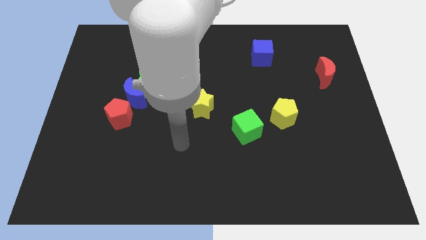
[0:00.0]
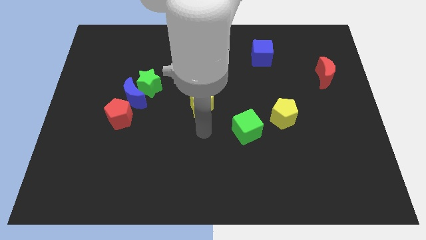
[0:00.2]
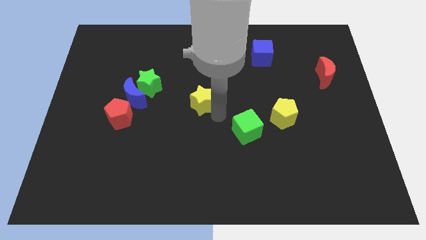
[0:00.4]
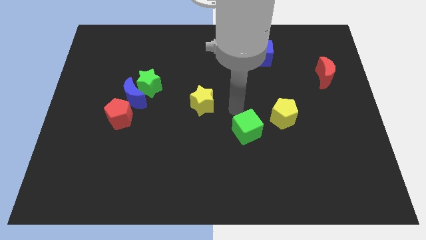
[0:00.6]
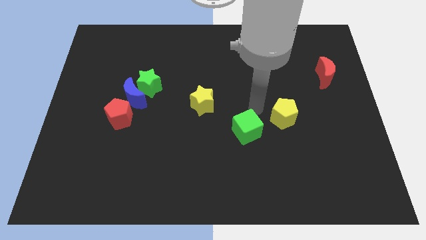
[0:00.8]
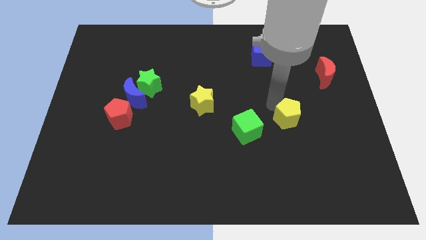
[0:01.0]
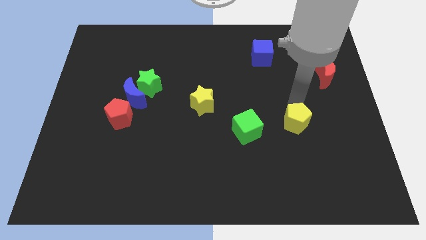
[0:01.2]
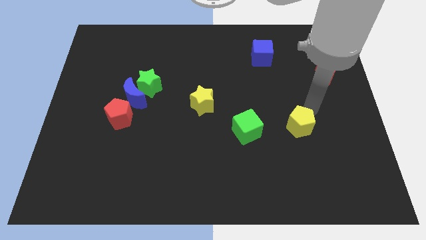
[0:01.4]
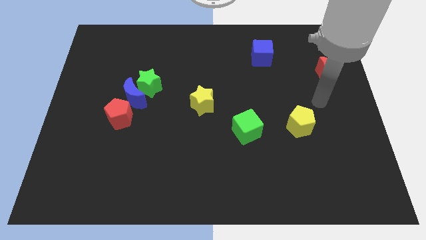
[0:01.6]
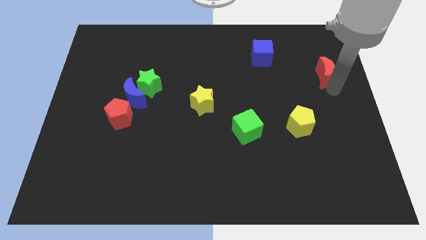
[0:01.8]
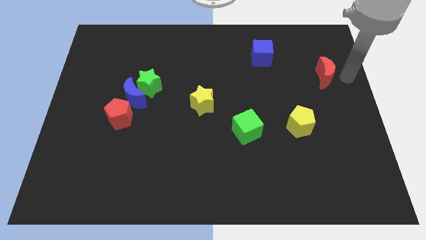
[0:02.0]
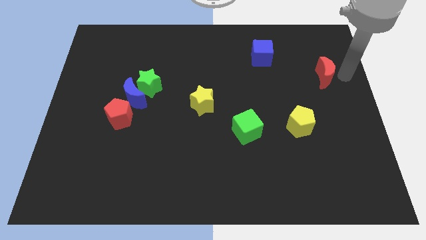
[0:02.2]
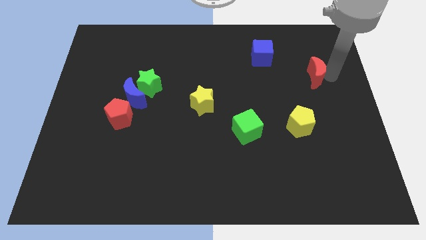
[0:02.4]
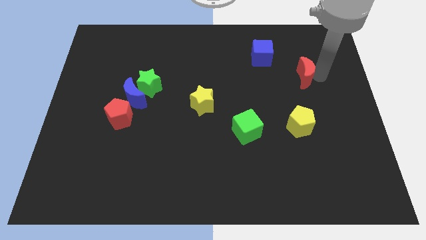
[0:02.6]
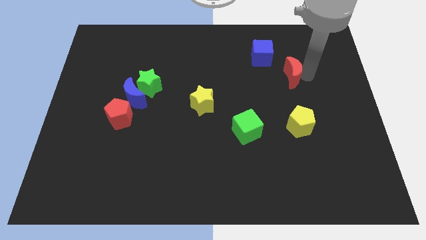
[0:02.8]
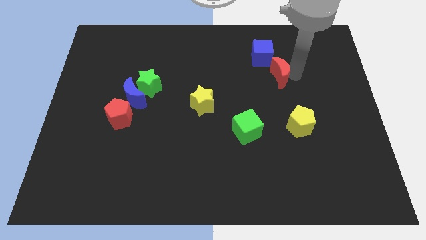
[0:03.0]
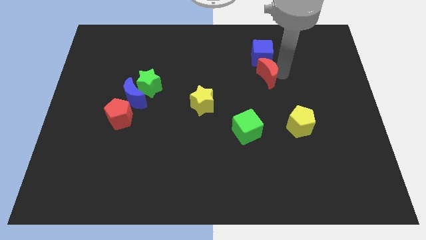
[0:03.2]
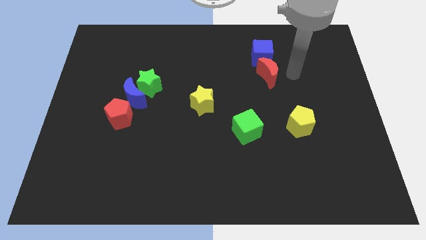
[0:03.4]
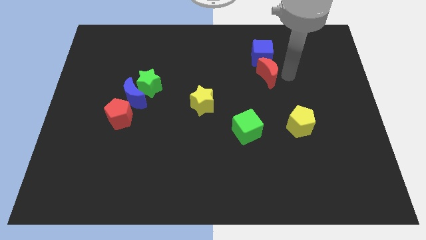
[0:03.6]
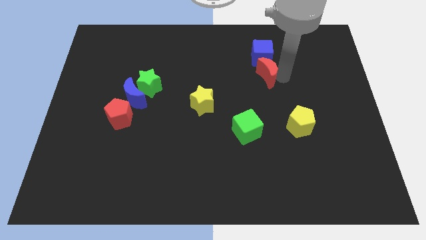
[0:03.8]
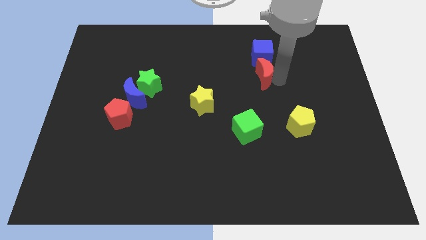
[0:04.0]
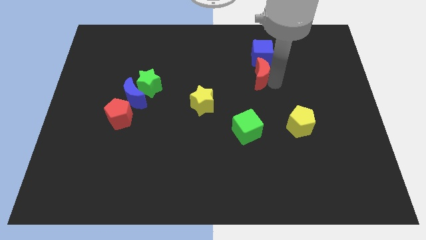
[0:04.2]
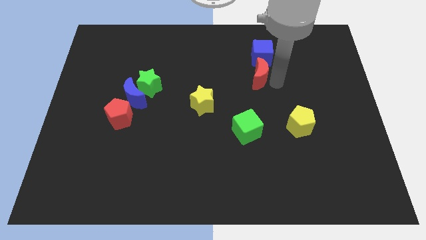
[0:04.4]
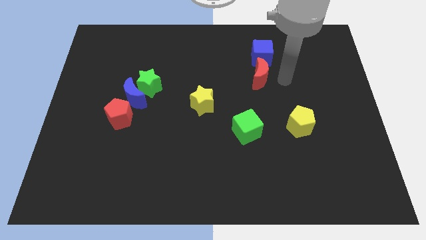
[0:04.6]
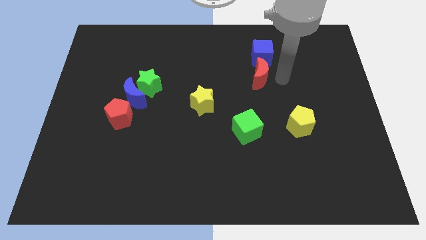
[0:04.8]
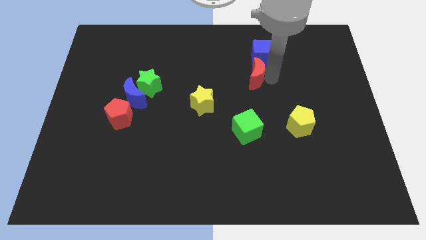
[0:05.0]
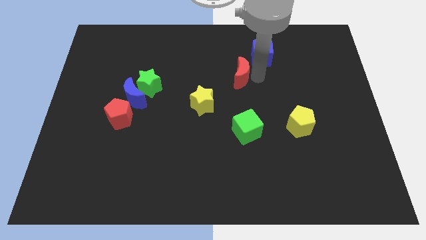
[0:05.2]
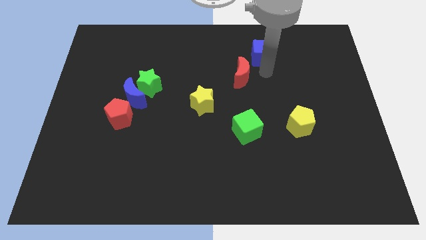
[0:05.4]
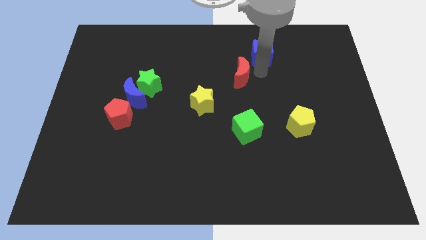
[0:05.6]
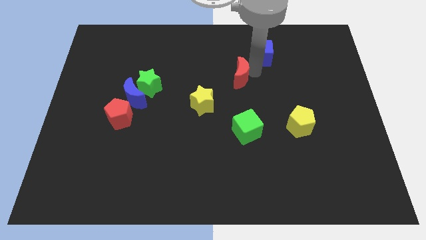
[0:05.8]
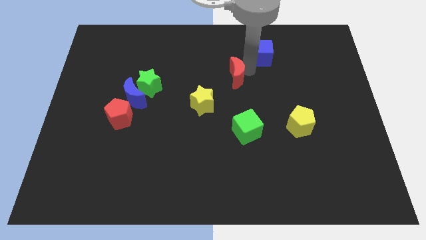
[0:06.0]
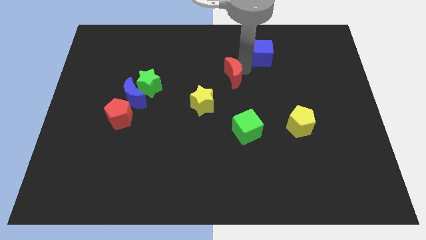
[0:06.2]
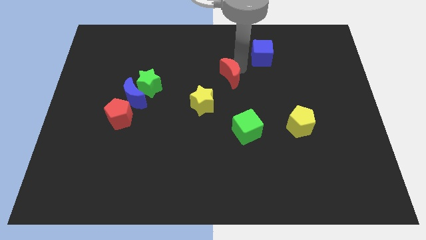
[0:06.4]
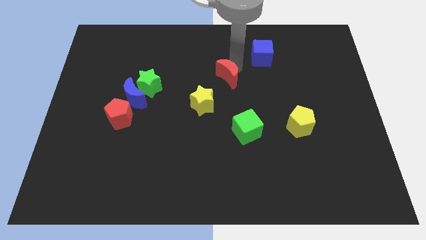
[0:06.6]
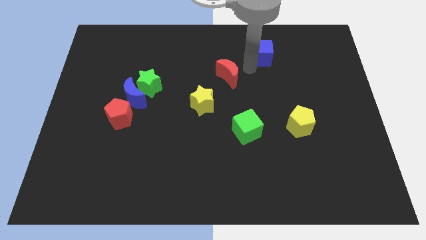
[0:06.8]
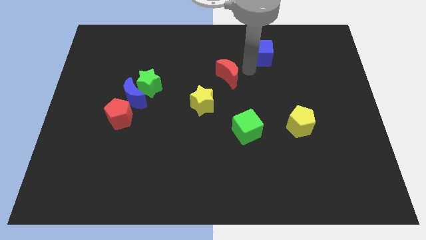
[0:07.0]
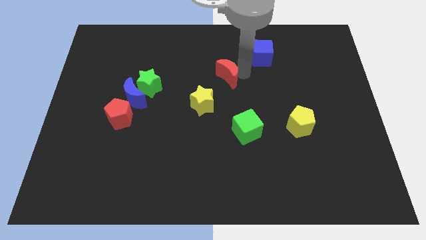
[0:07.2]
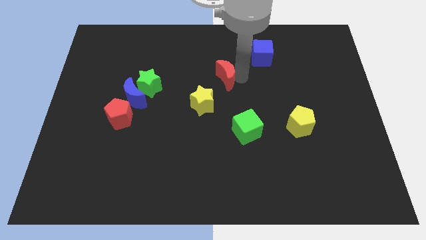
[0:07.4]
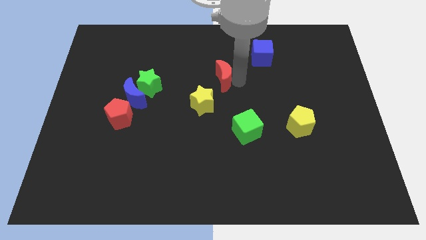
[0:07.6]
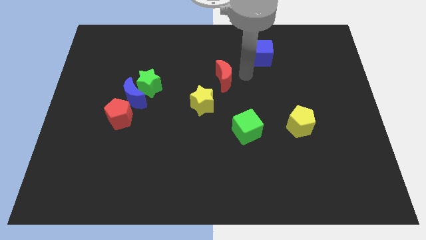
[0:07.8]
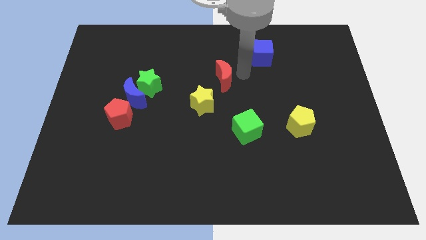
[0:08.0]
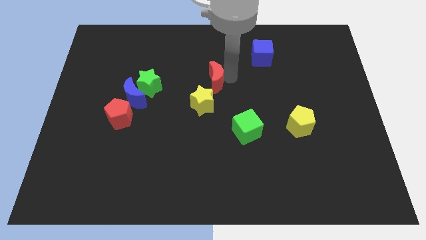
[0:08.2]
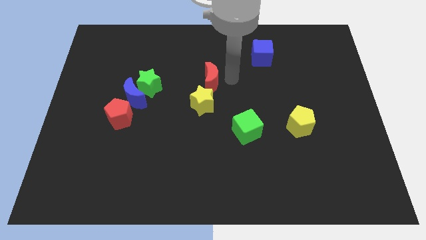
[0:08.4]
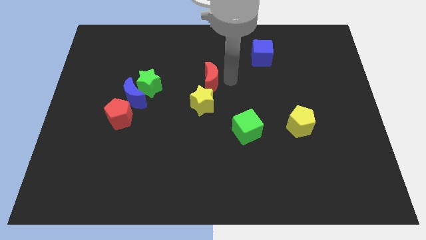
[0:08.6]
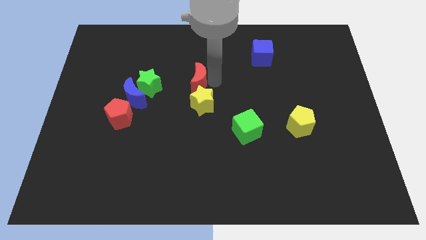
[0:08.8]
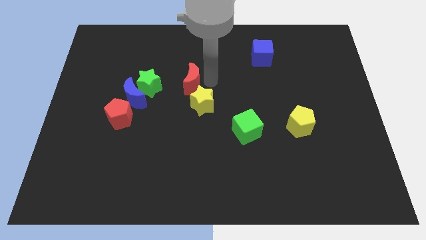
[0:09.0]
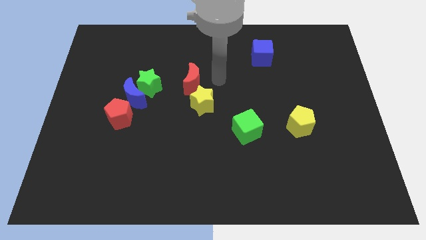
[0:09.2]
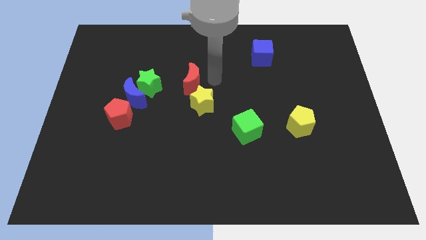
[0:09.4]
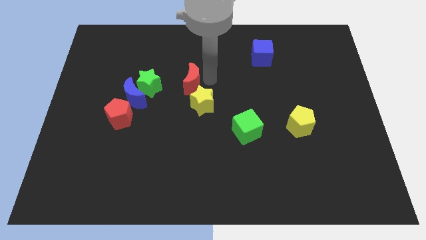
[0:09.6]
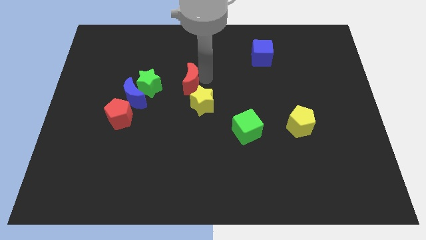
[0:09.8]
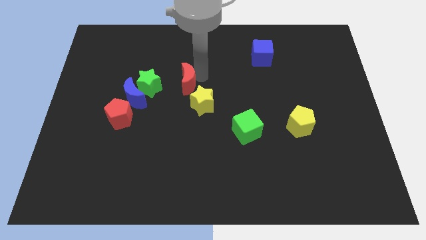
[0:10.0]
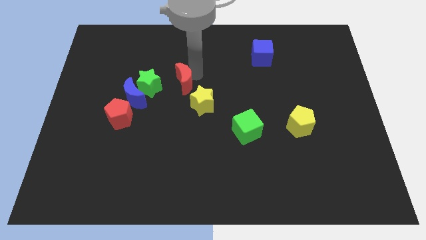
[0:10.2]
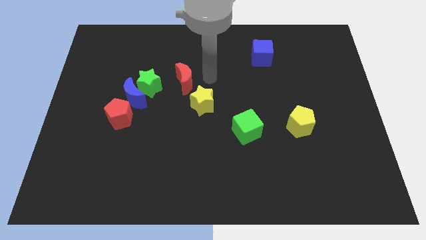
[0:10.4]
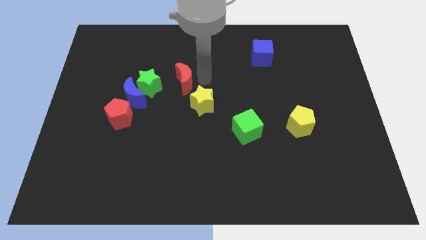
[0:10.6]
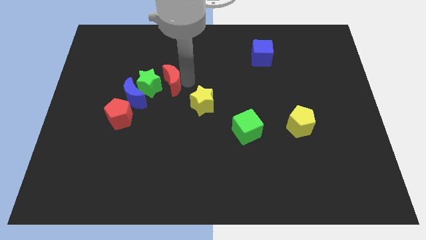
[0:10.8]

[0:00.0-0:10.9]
push the red moon next to the green star

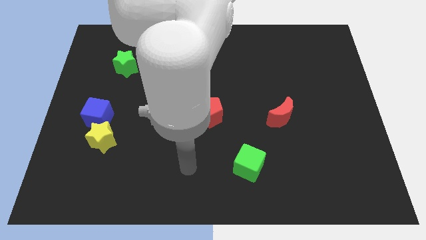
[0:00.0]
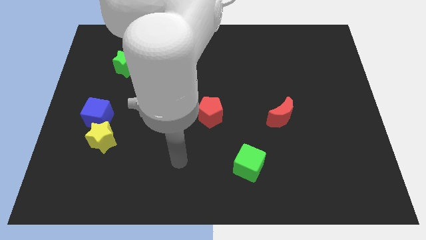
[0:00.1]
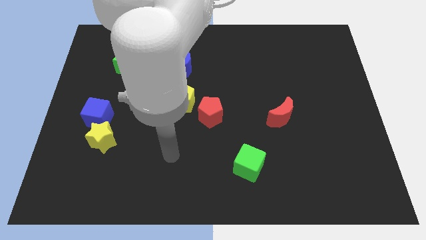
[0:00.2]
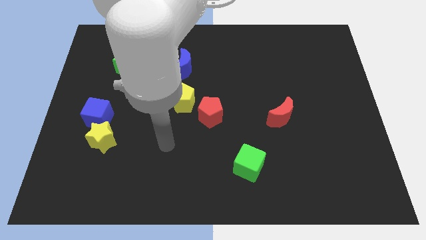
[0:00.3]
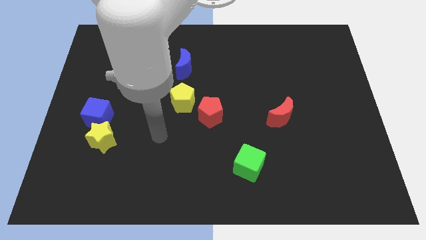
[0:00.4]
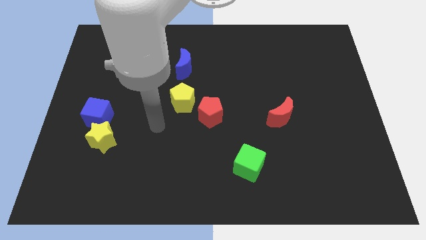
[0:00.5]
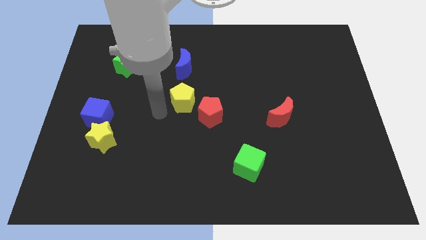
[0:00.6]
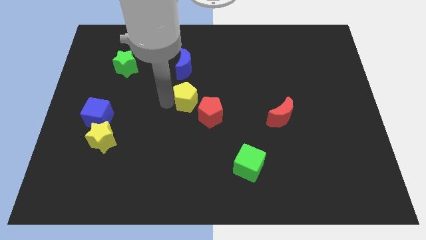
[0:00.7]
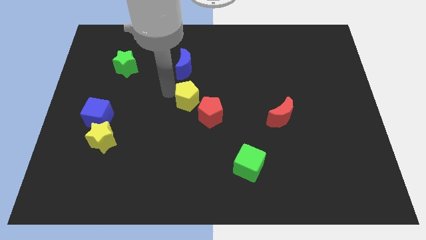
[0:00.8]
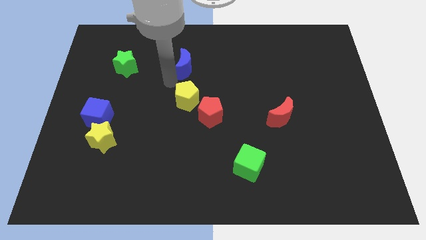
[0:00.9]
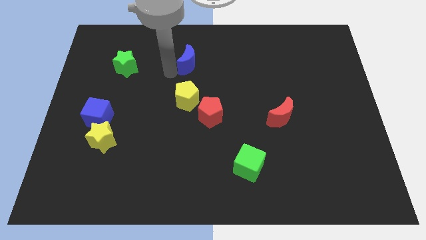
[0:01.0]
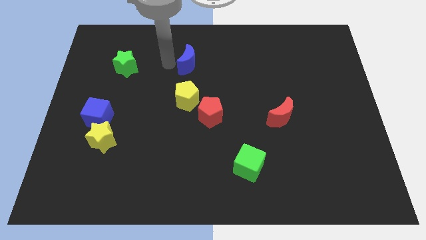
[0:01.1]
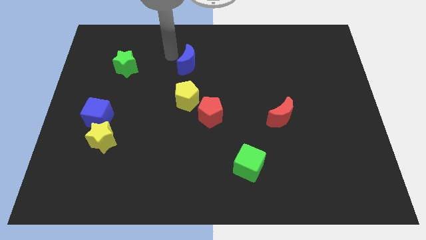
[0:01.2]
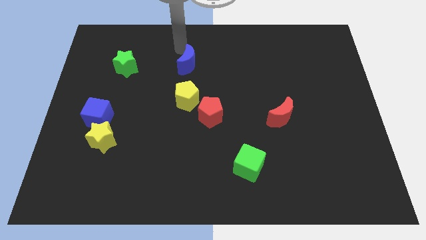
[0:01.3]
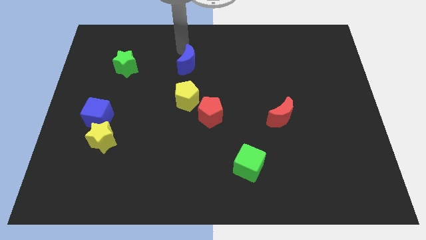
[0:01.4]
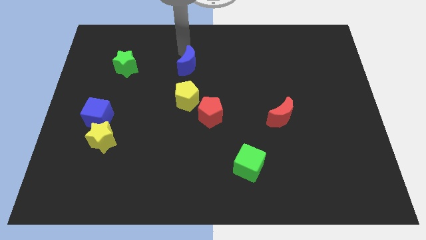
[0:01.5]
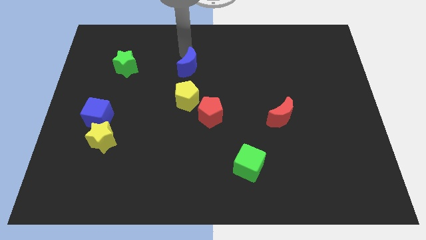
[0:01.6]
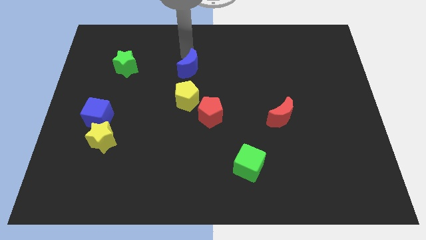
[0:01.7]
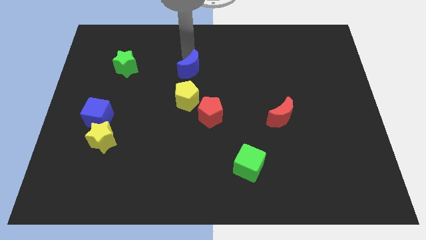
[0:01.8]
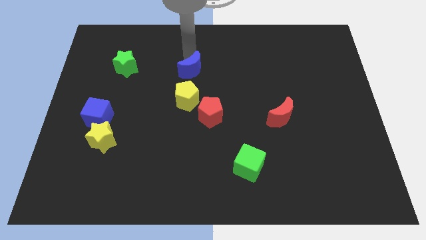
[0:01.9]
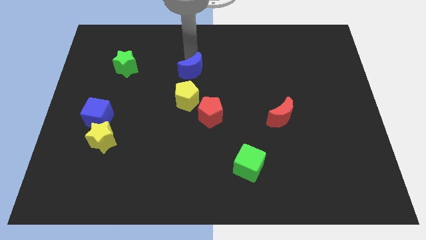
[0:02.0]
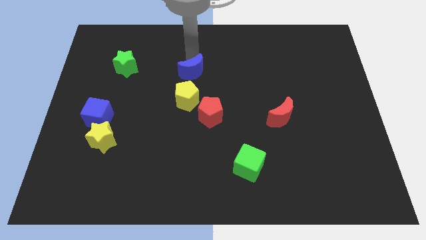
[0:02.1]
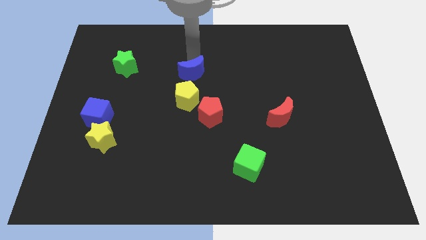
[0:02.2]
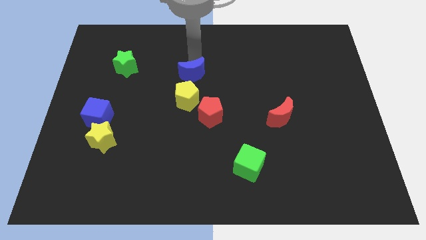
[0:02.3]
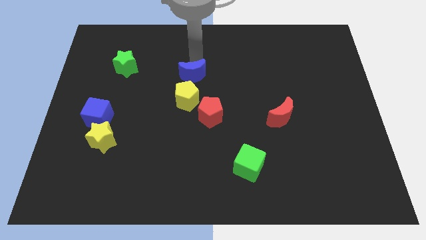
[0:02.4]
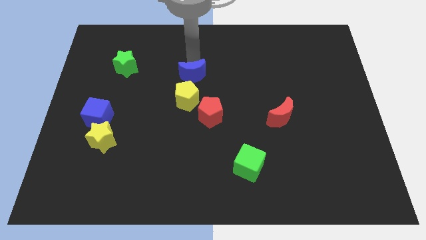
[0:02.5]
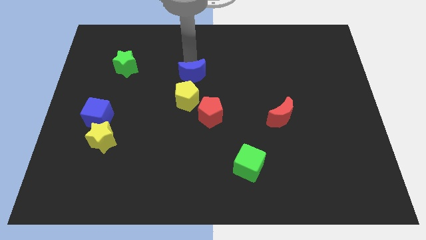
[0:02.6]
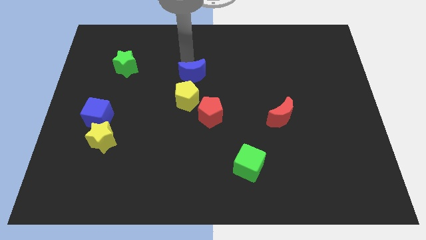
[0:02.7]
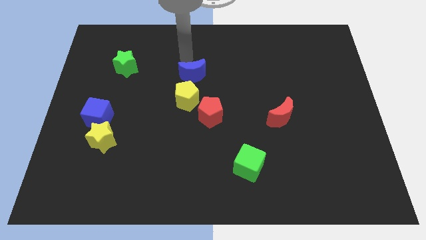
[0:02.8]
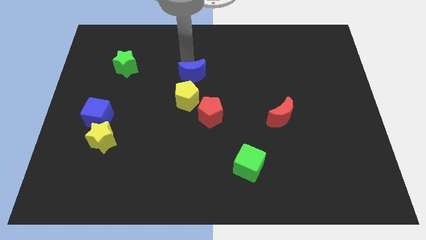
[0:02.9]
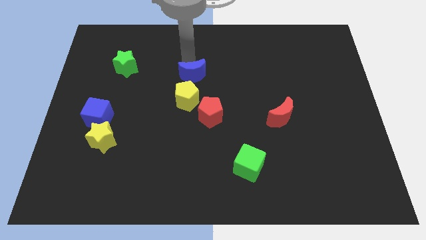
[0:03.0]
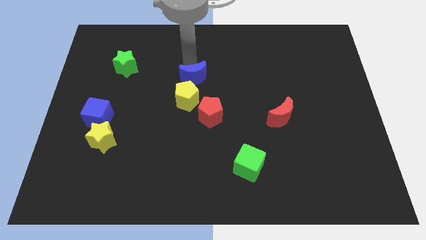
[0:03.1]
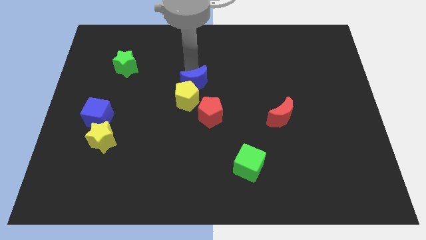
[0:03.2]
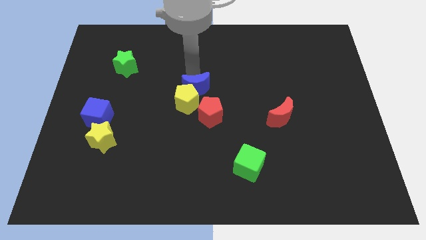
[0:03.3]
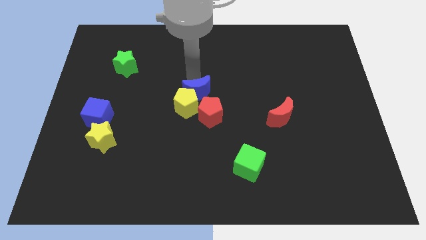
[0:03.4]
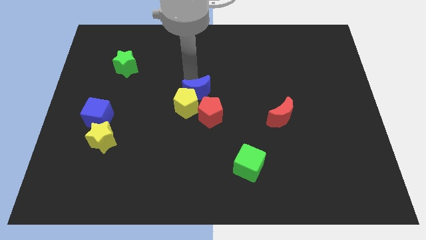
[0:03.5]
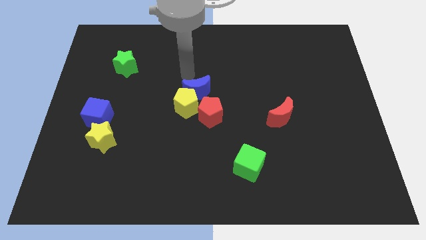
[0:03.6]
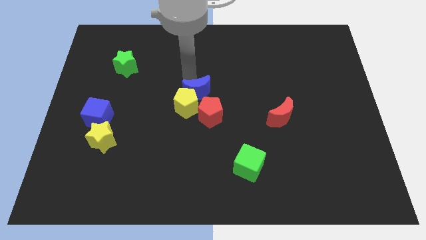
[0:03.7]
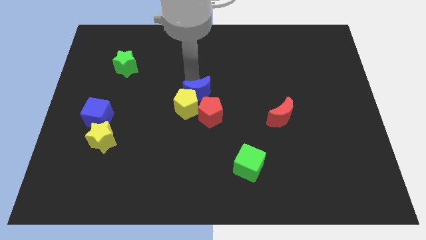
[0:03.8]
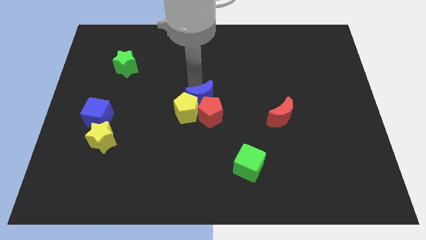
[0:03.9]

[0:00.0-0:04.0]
push the blue moon towards the red pentagon
